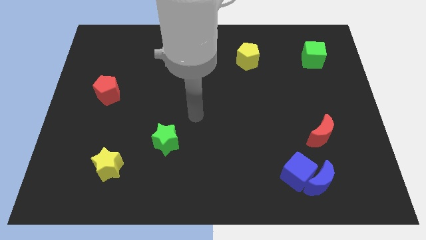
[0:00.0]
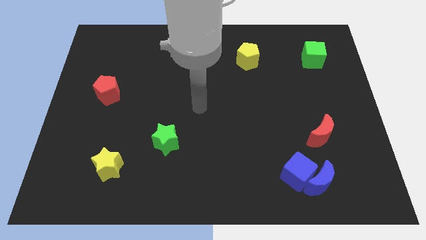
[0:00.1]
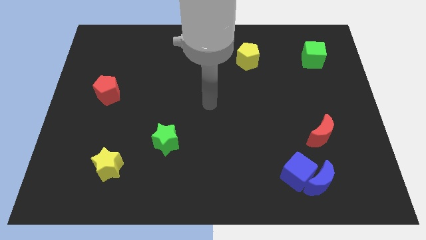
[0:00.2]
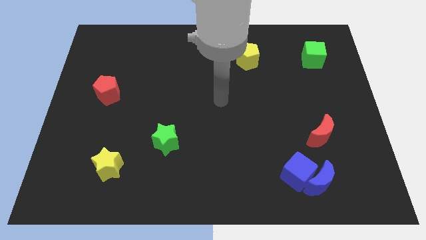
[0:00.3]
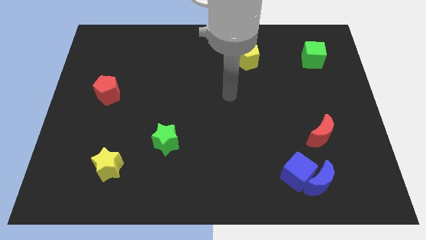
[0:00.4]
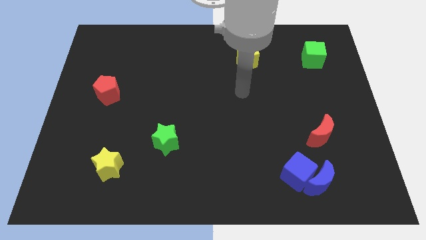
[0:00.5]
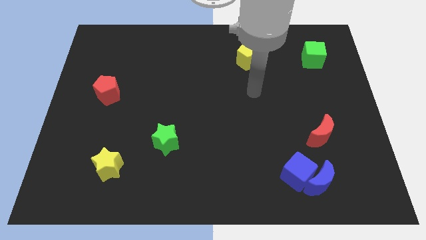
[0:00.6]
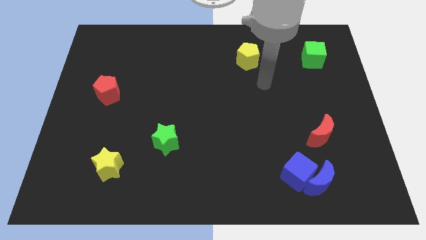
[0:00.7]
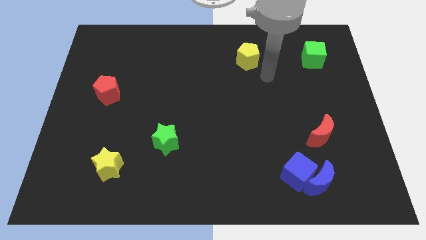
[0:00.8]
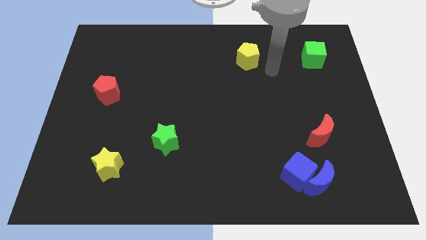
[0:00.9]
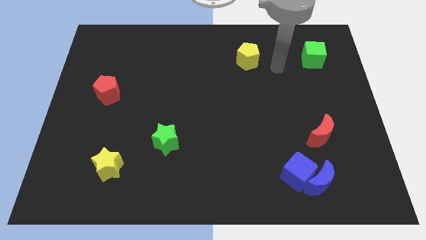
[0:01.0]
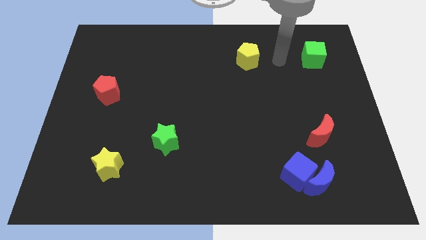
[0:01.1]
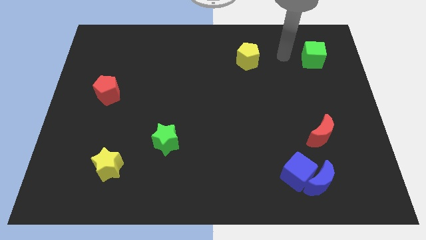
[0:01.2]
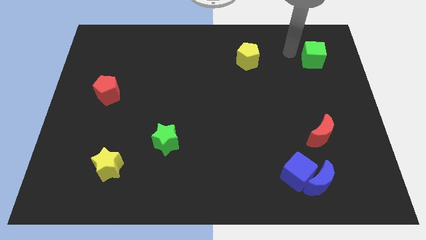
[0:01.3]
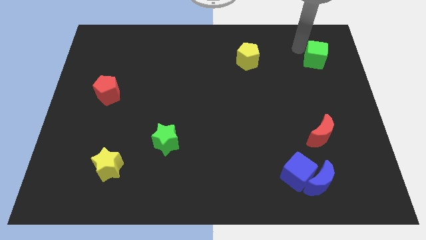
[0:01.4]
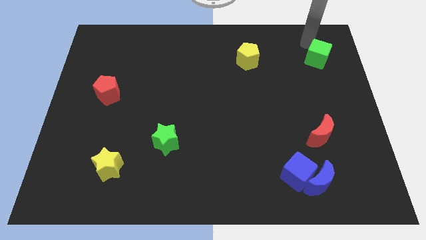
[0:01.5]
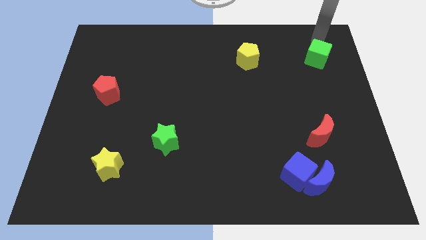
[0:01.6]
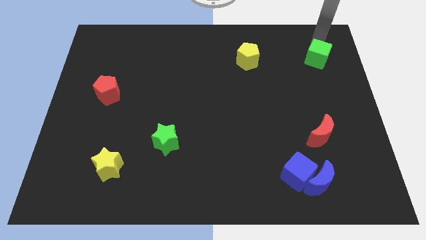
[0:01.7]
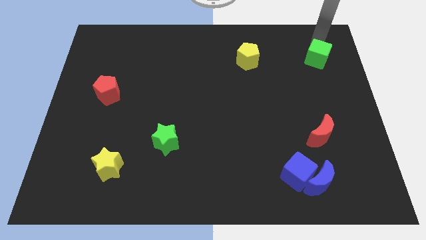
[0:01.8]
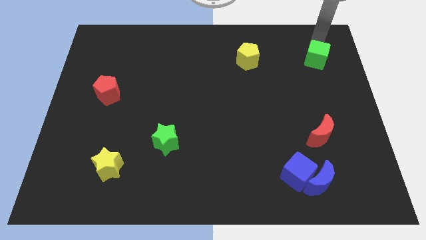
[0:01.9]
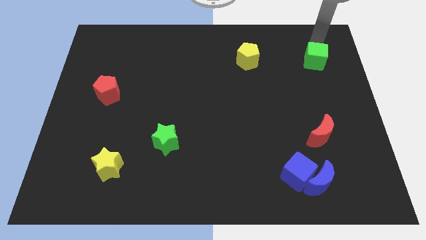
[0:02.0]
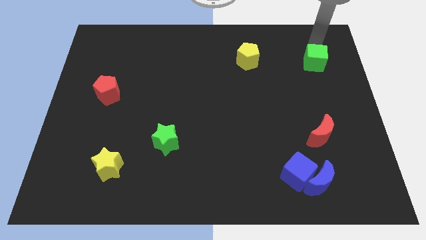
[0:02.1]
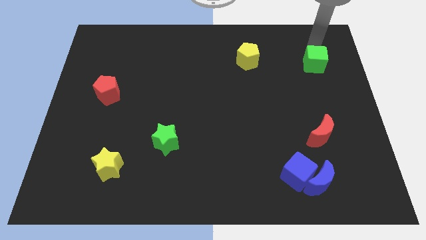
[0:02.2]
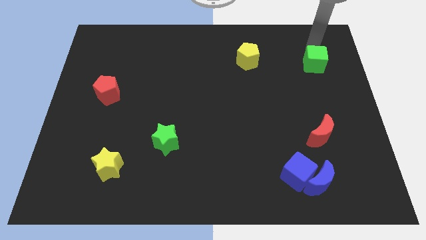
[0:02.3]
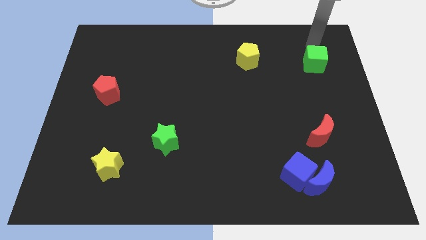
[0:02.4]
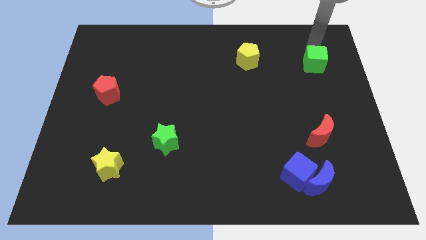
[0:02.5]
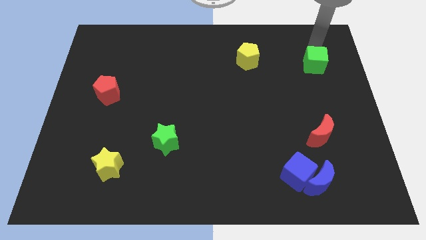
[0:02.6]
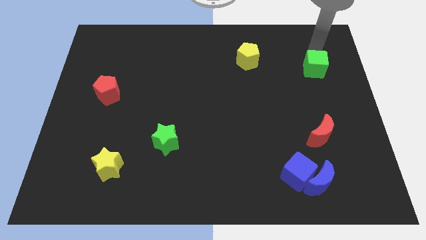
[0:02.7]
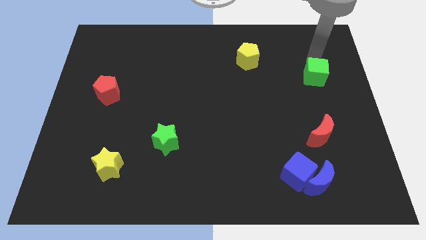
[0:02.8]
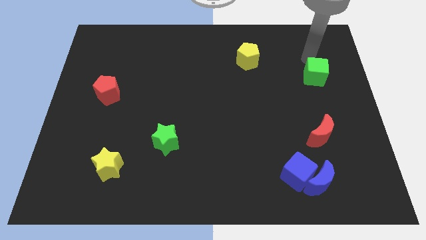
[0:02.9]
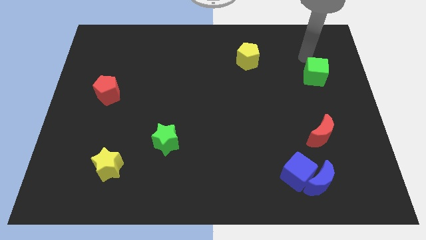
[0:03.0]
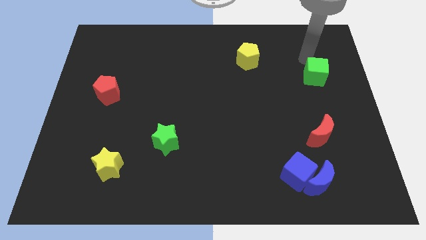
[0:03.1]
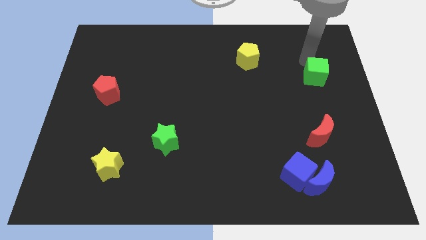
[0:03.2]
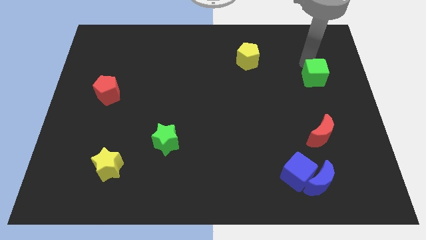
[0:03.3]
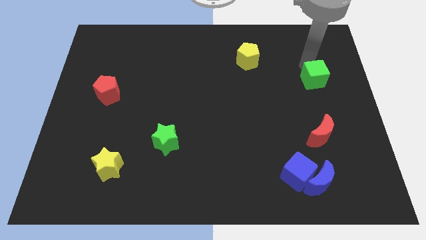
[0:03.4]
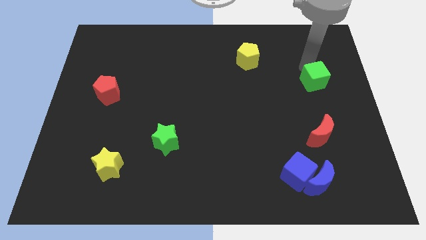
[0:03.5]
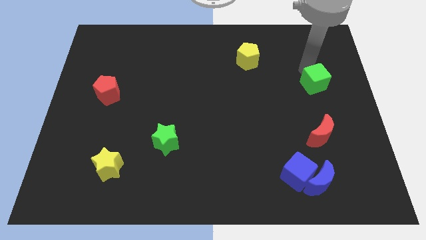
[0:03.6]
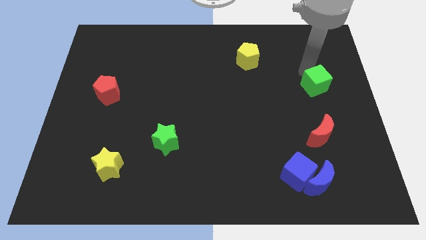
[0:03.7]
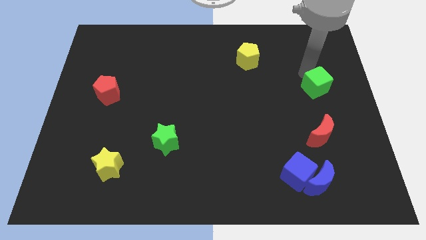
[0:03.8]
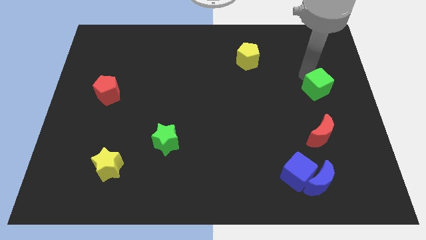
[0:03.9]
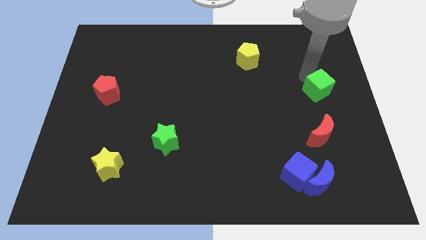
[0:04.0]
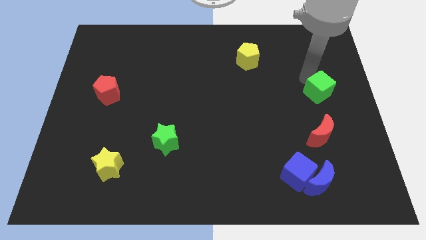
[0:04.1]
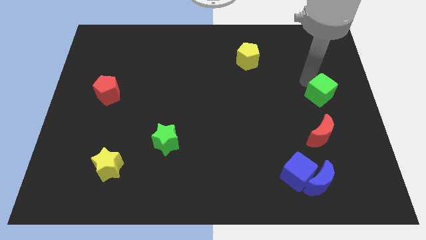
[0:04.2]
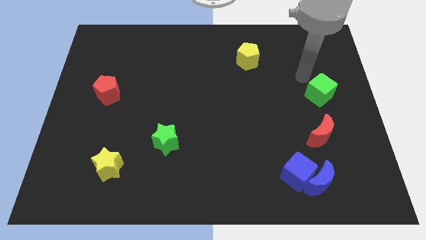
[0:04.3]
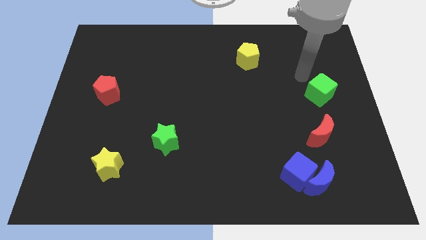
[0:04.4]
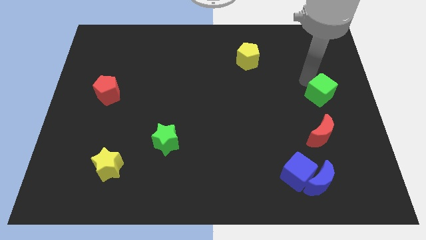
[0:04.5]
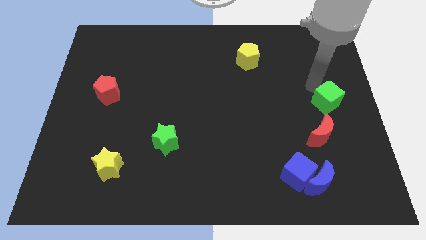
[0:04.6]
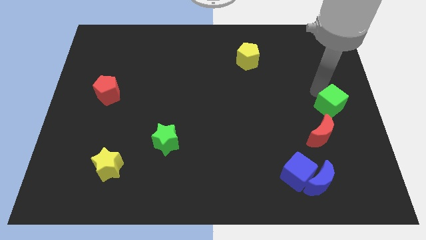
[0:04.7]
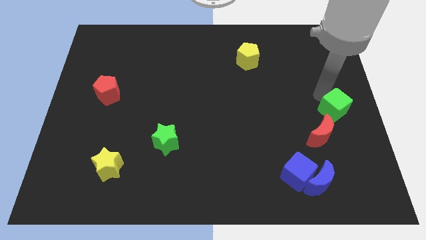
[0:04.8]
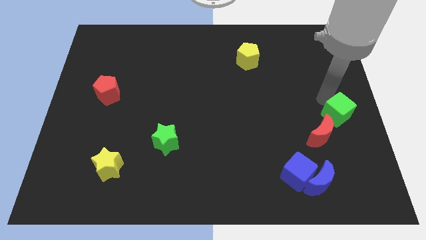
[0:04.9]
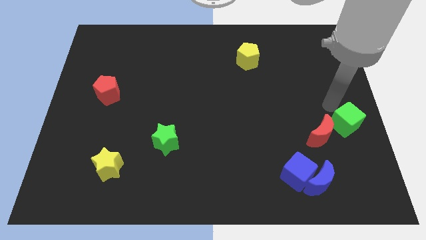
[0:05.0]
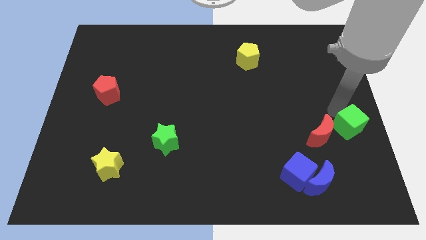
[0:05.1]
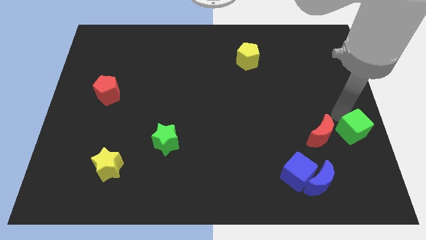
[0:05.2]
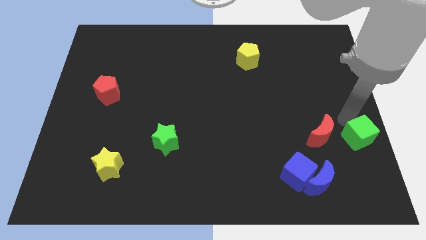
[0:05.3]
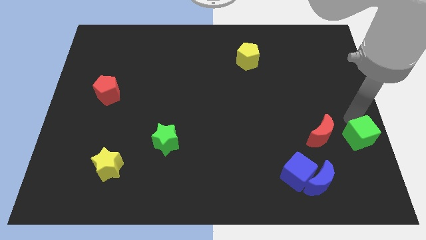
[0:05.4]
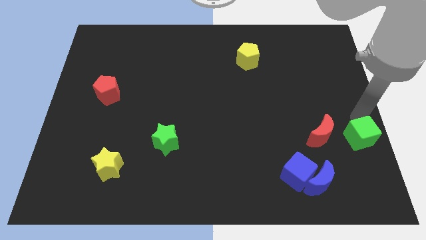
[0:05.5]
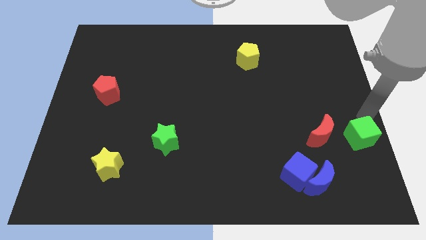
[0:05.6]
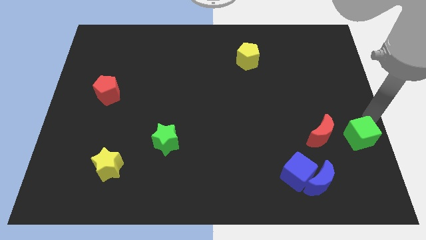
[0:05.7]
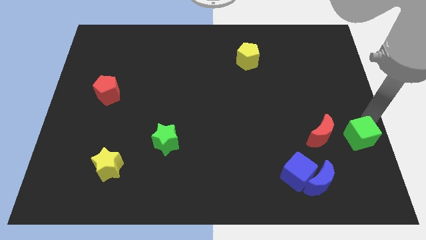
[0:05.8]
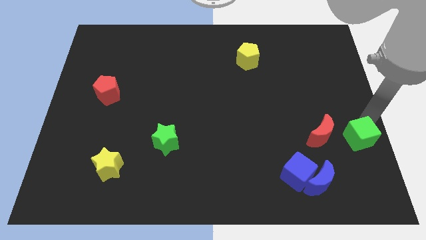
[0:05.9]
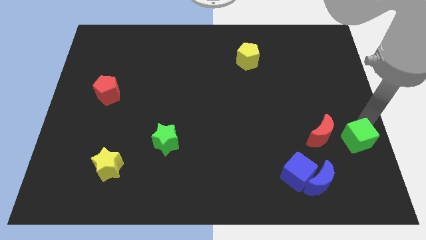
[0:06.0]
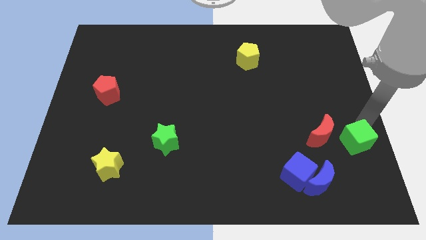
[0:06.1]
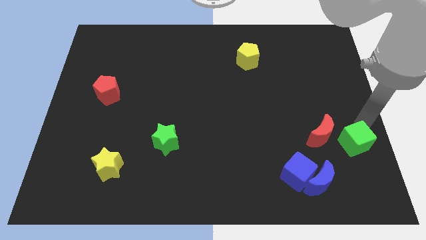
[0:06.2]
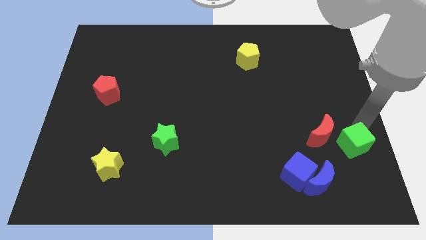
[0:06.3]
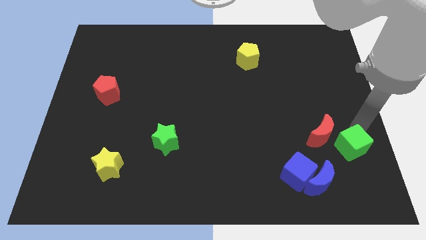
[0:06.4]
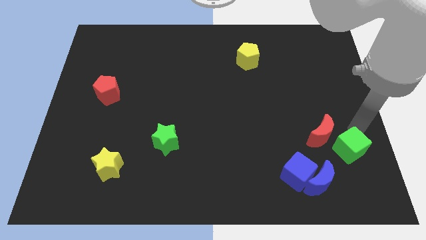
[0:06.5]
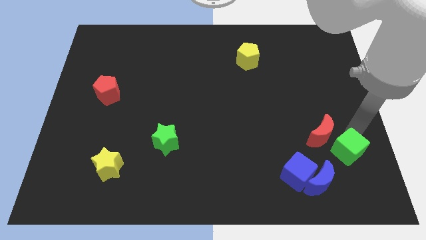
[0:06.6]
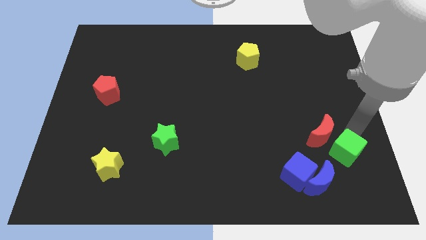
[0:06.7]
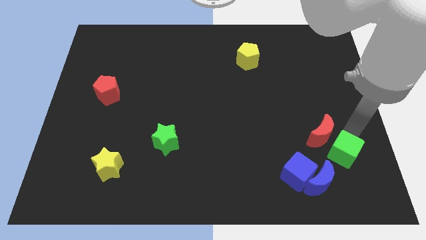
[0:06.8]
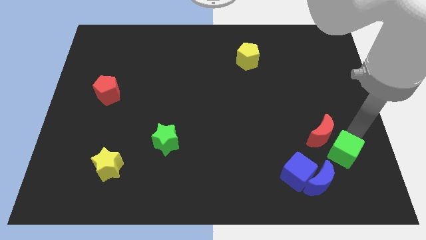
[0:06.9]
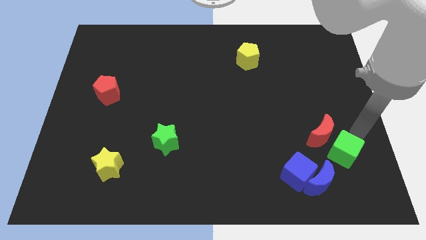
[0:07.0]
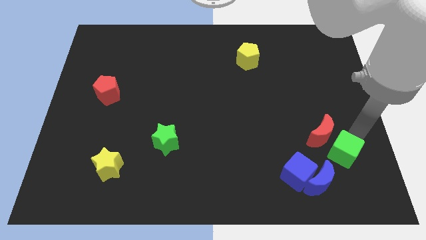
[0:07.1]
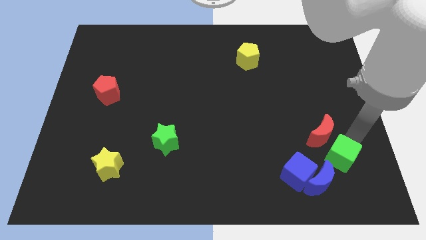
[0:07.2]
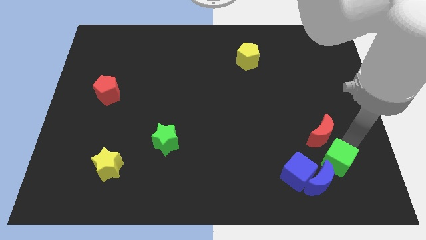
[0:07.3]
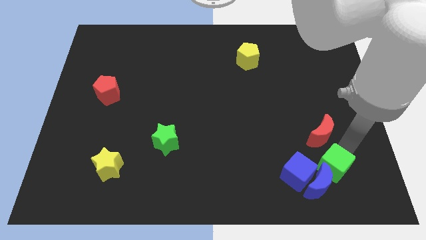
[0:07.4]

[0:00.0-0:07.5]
slide the green cube close to the blue moon
